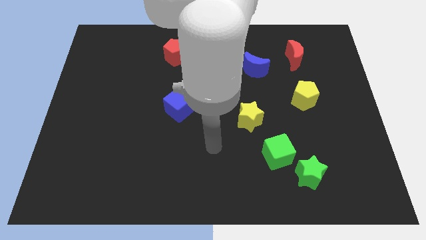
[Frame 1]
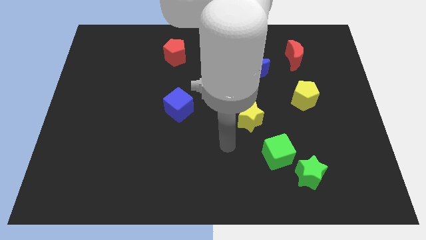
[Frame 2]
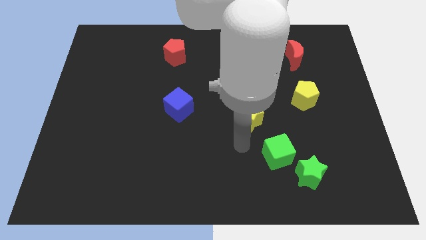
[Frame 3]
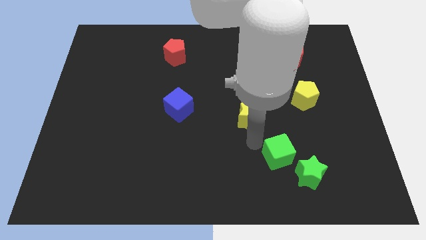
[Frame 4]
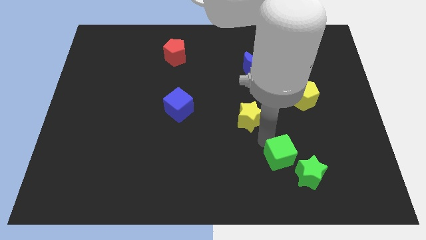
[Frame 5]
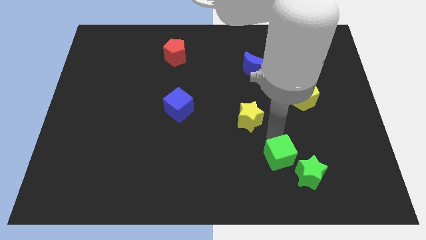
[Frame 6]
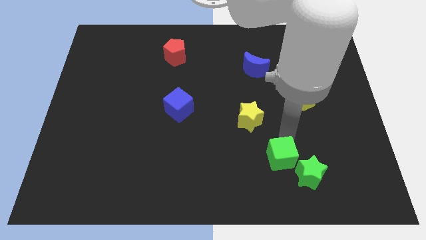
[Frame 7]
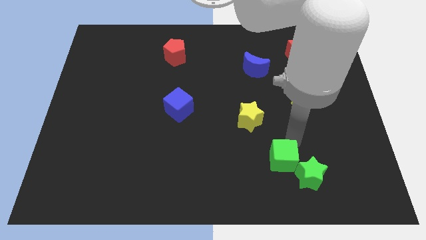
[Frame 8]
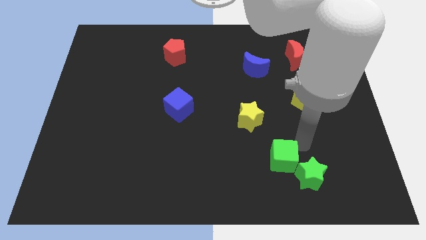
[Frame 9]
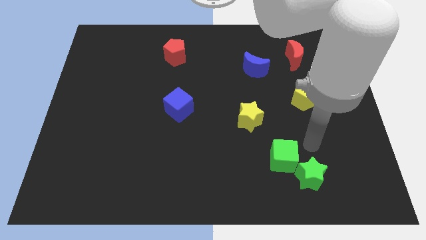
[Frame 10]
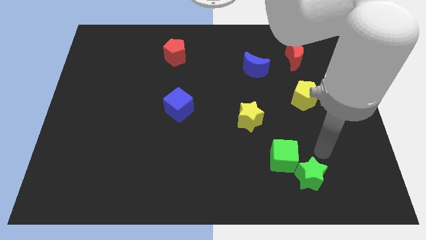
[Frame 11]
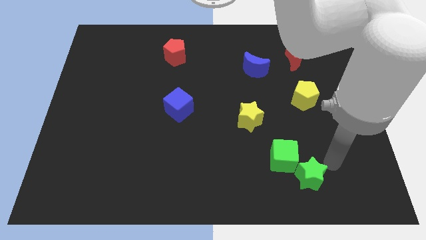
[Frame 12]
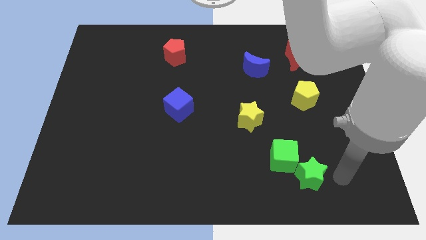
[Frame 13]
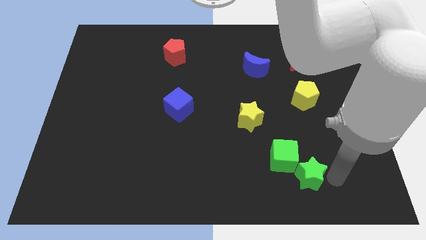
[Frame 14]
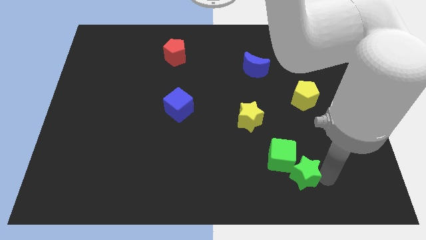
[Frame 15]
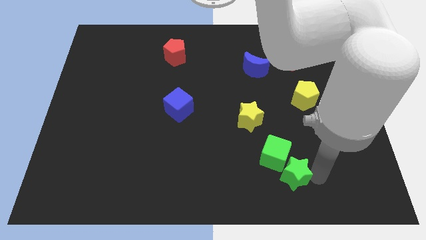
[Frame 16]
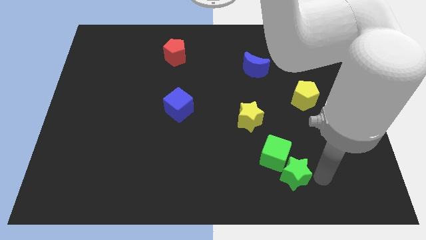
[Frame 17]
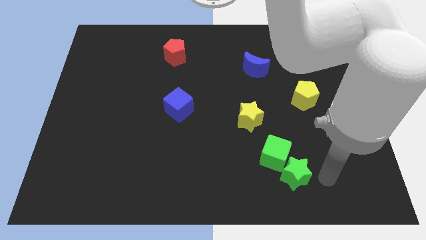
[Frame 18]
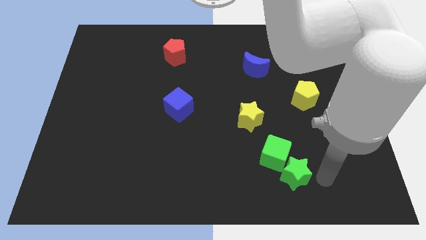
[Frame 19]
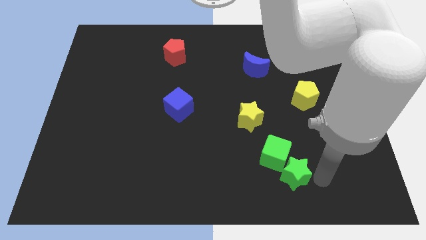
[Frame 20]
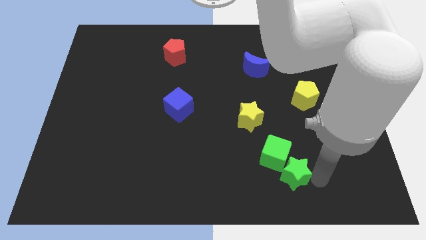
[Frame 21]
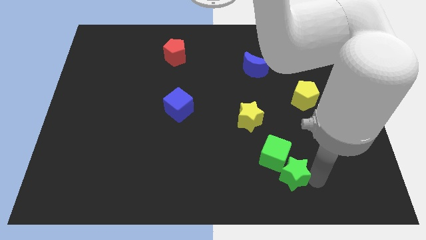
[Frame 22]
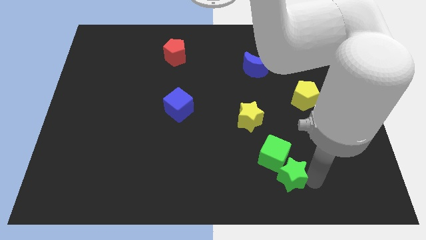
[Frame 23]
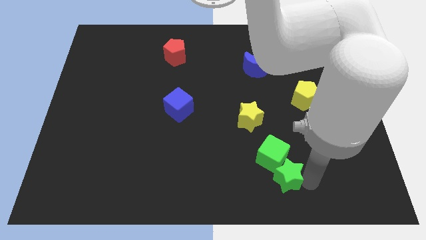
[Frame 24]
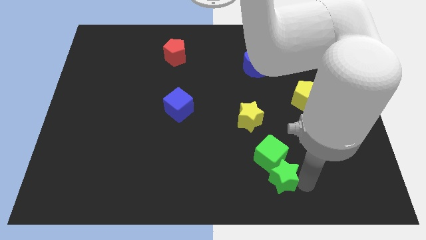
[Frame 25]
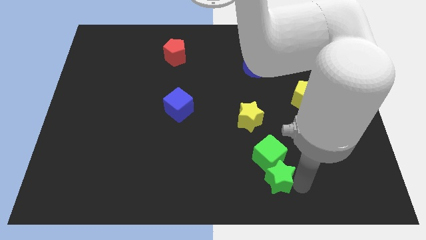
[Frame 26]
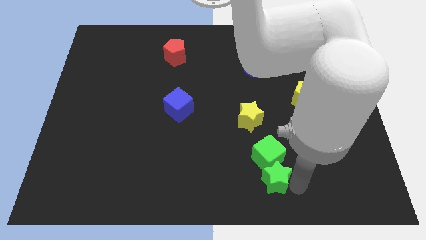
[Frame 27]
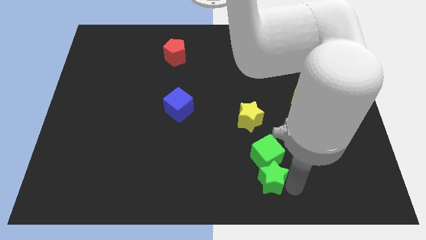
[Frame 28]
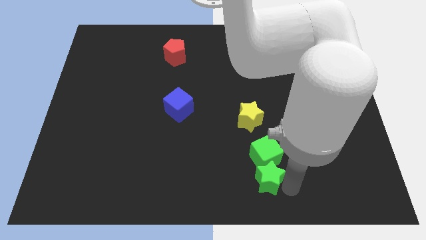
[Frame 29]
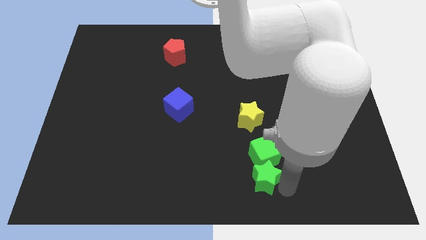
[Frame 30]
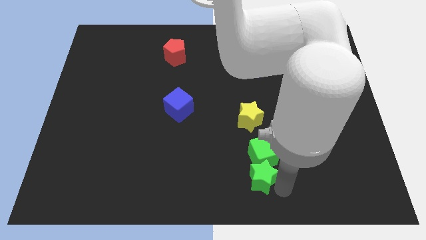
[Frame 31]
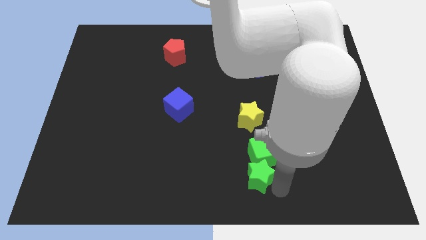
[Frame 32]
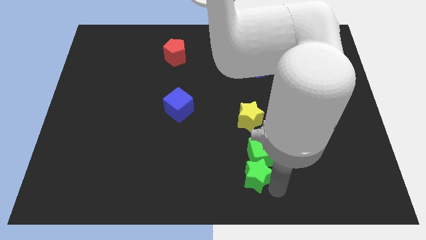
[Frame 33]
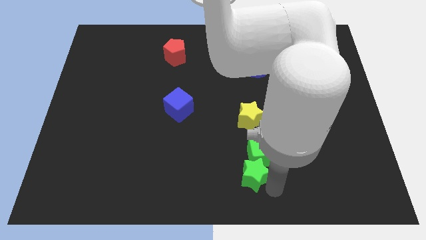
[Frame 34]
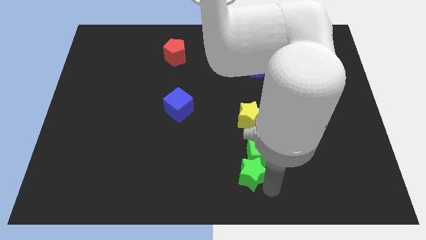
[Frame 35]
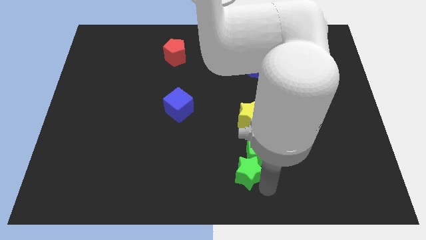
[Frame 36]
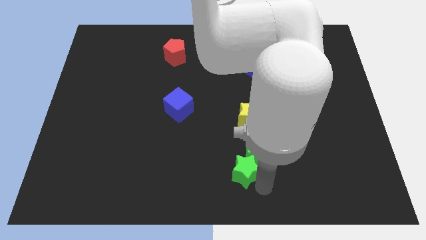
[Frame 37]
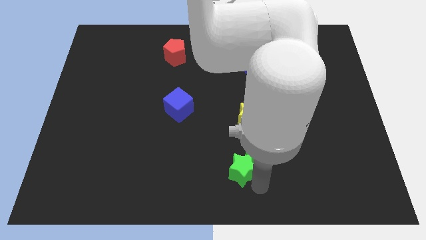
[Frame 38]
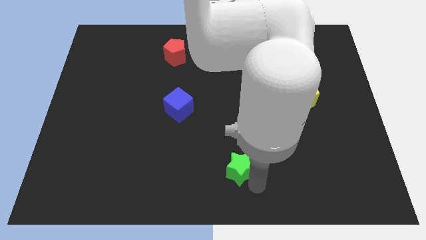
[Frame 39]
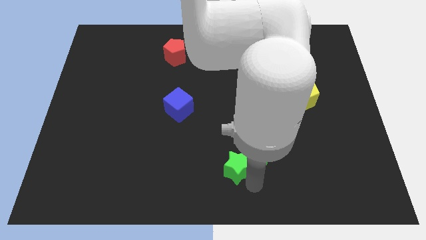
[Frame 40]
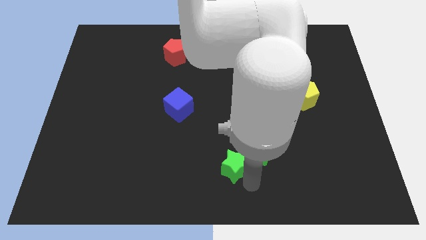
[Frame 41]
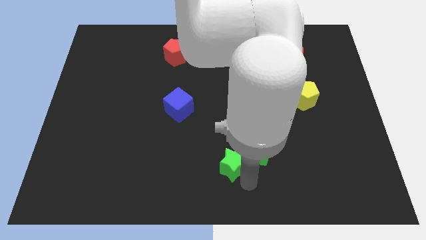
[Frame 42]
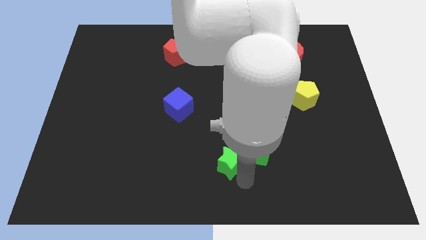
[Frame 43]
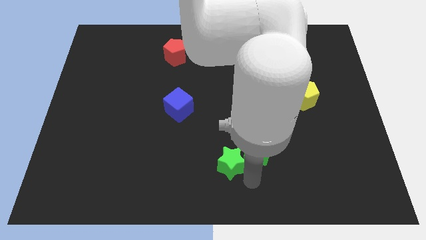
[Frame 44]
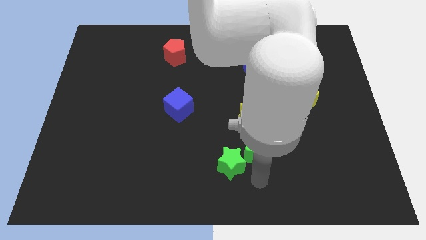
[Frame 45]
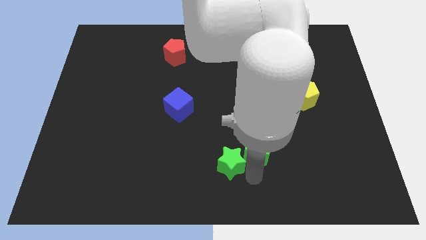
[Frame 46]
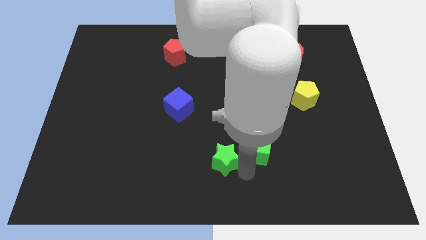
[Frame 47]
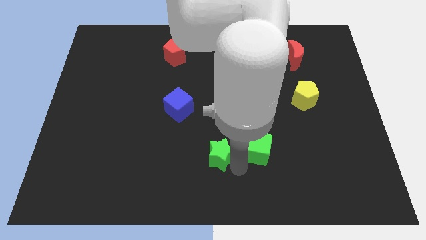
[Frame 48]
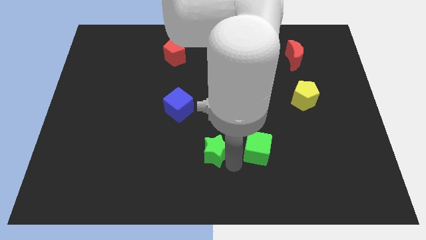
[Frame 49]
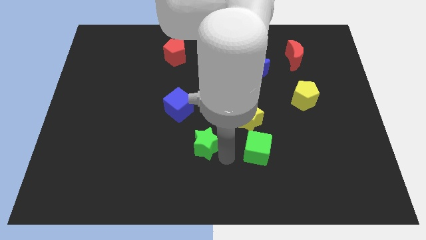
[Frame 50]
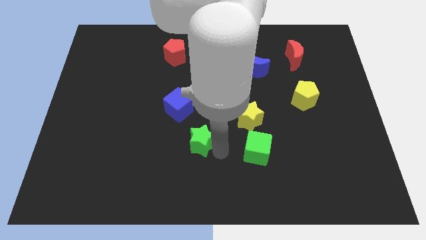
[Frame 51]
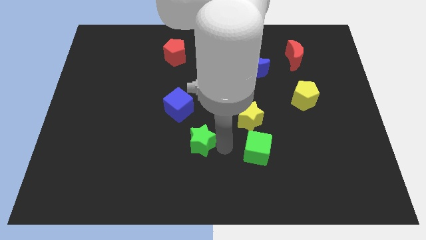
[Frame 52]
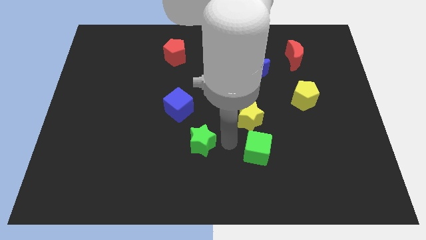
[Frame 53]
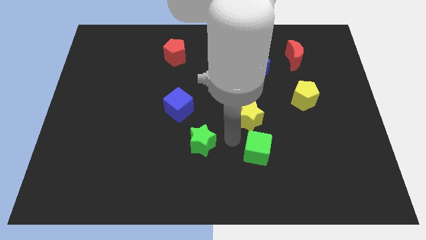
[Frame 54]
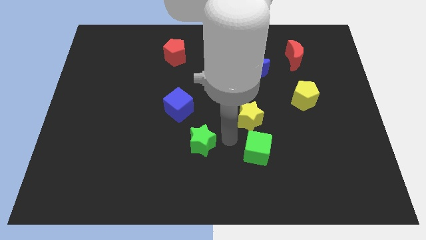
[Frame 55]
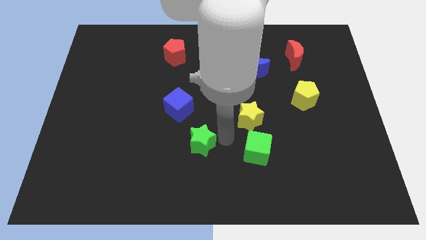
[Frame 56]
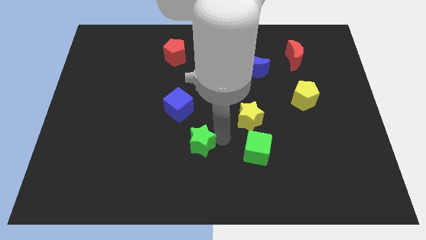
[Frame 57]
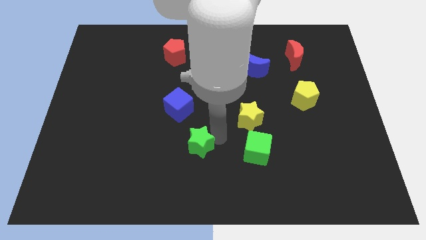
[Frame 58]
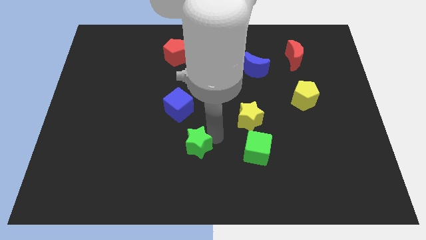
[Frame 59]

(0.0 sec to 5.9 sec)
push the green star to the bottom side of the blue cube

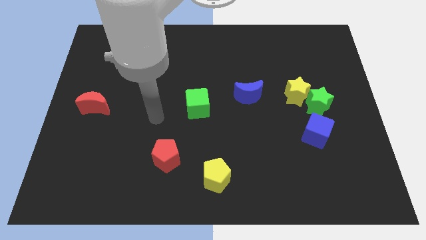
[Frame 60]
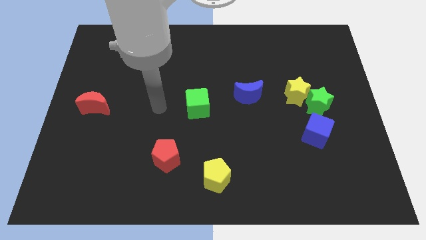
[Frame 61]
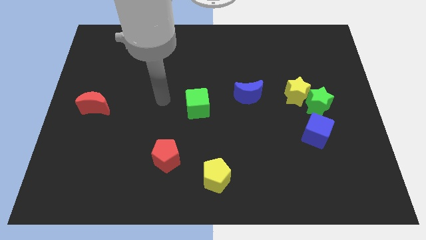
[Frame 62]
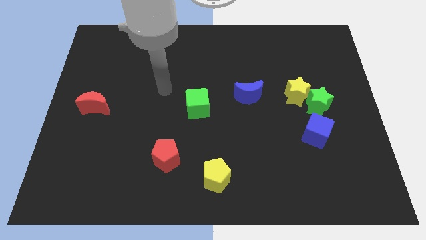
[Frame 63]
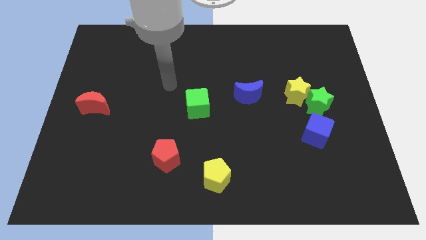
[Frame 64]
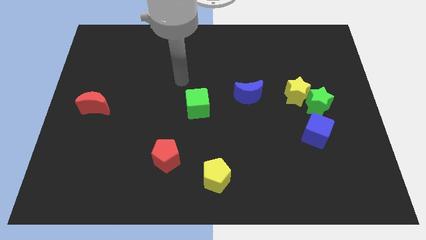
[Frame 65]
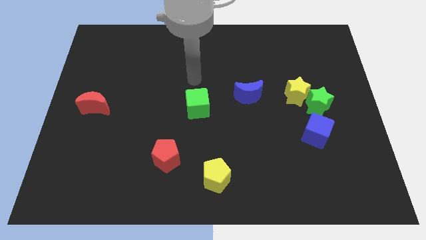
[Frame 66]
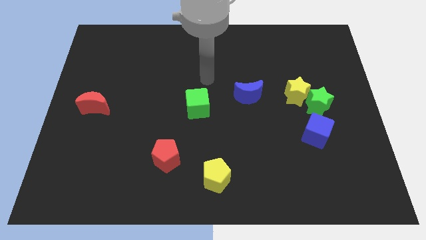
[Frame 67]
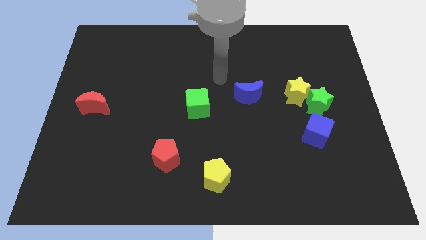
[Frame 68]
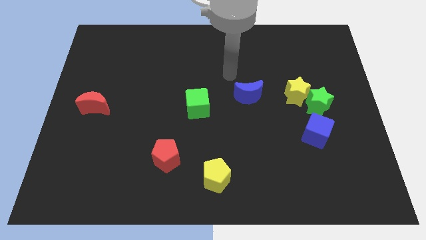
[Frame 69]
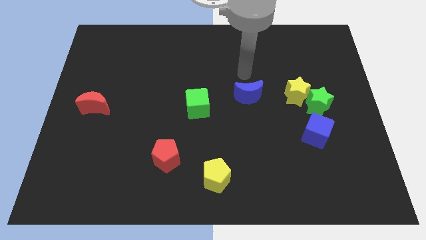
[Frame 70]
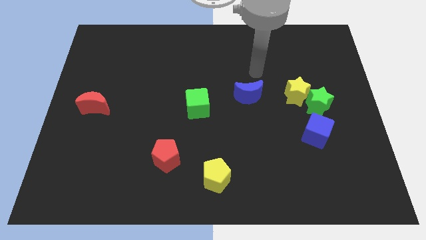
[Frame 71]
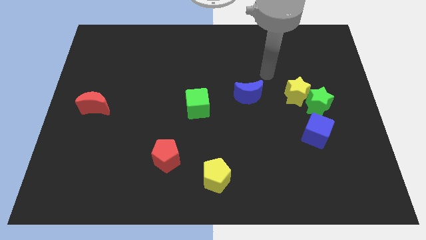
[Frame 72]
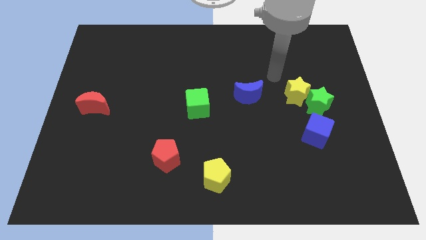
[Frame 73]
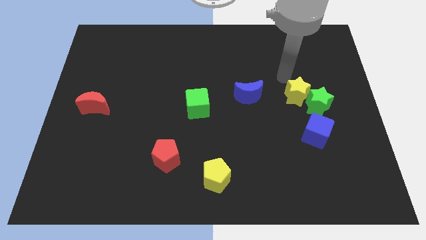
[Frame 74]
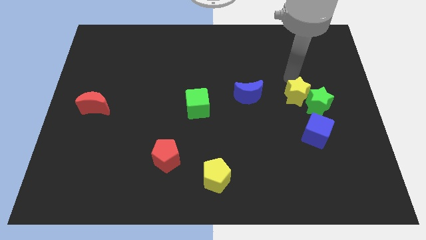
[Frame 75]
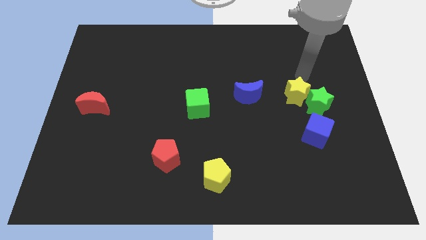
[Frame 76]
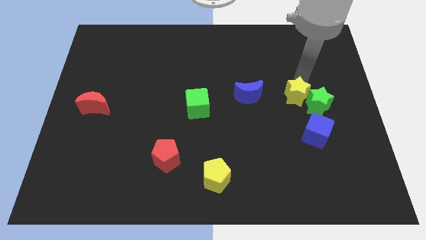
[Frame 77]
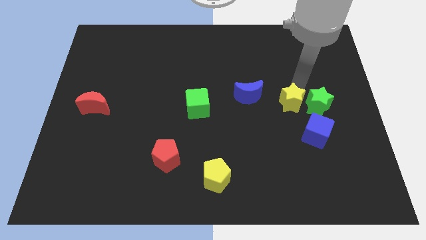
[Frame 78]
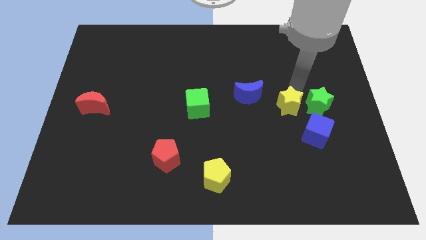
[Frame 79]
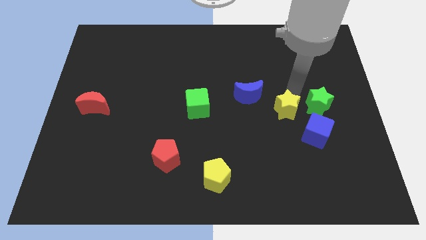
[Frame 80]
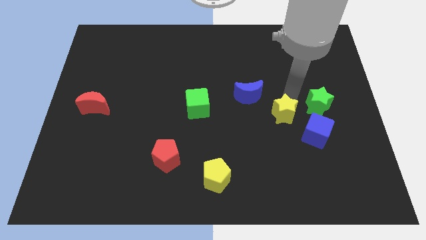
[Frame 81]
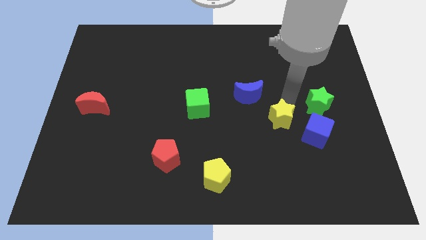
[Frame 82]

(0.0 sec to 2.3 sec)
put the yellow star to the left of the blue cube
